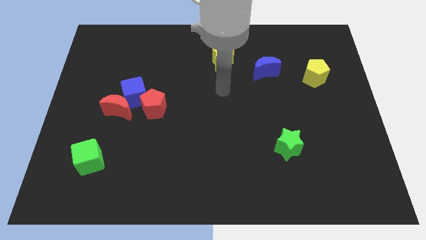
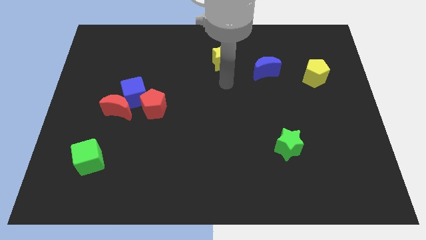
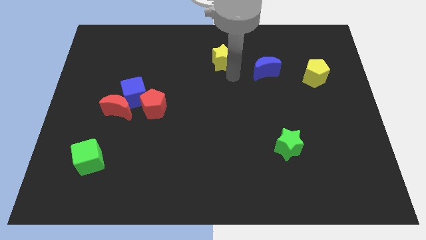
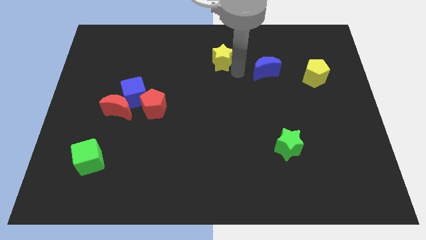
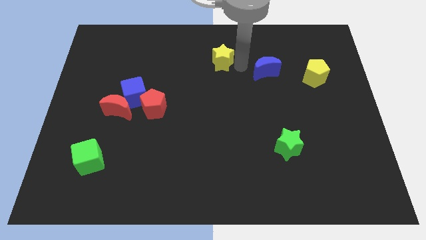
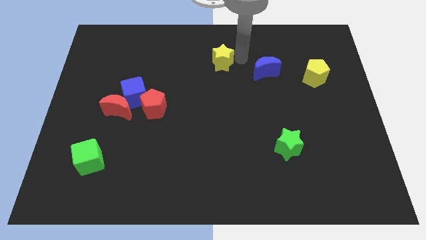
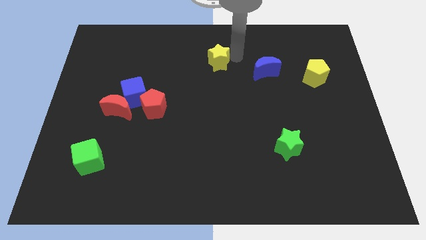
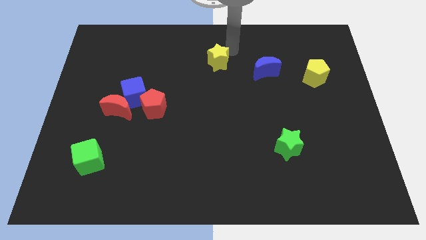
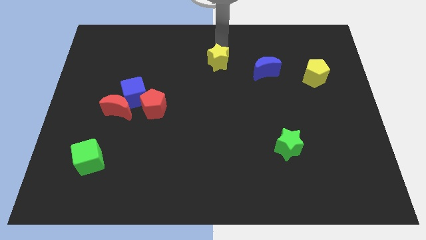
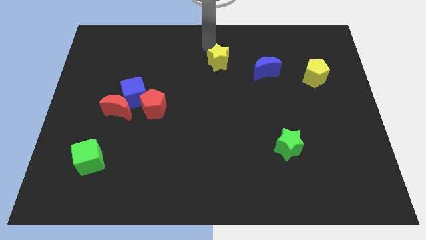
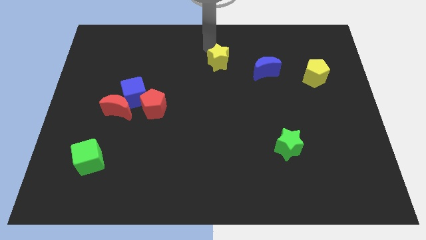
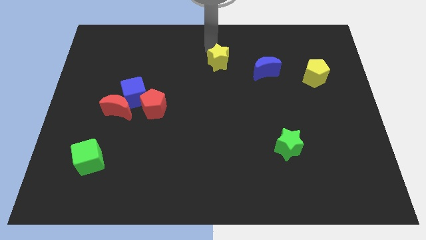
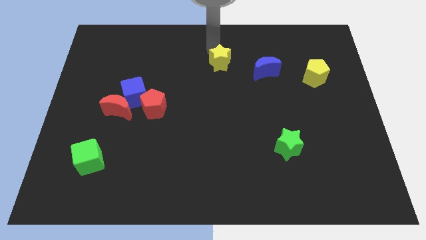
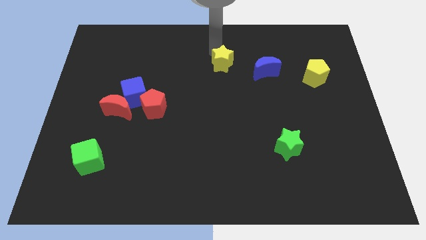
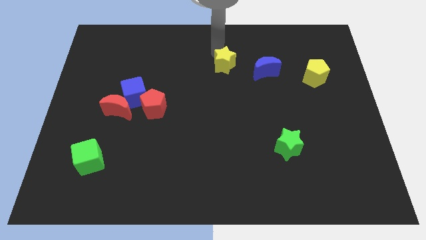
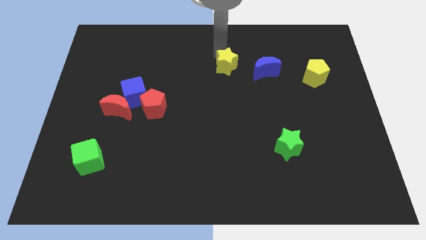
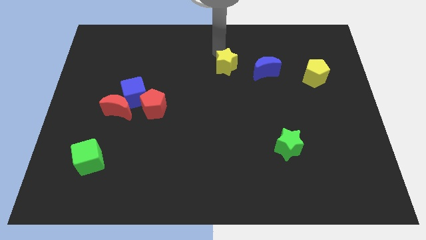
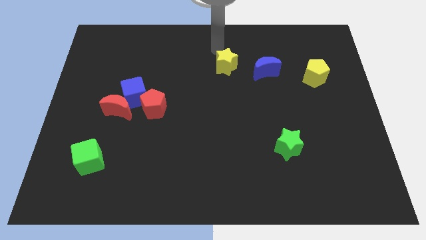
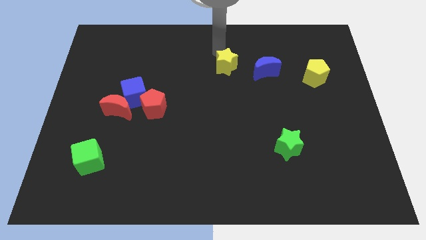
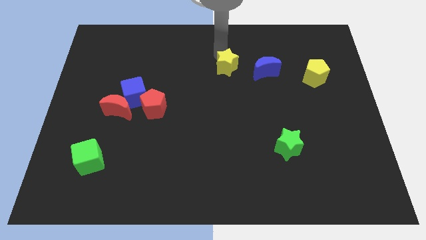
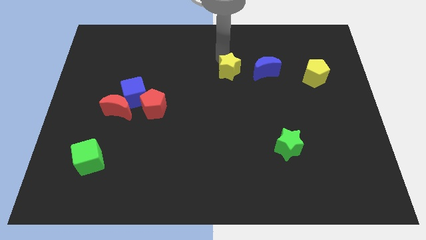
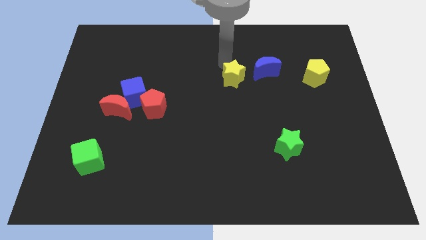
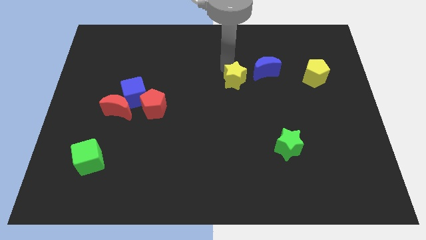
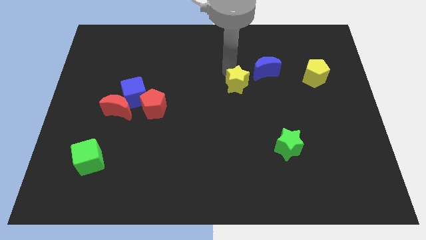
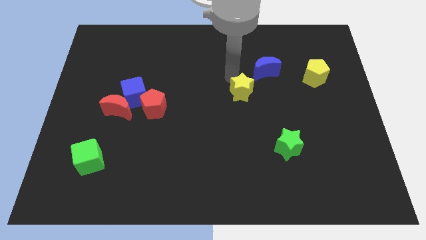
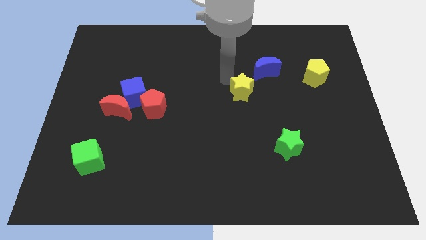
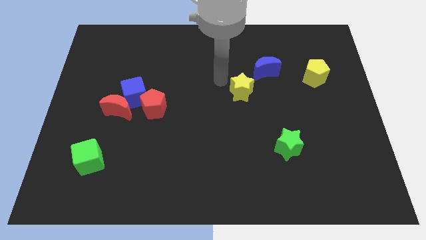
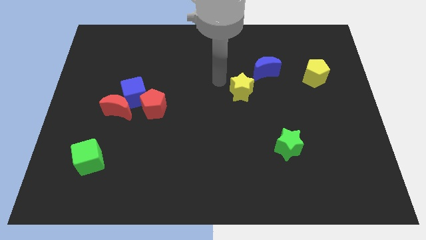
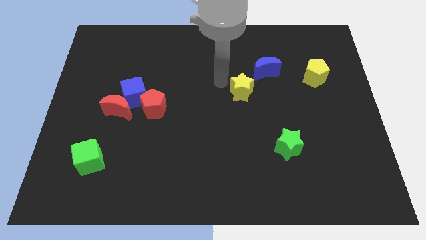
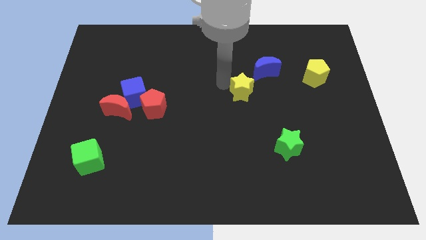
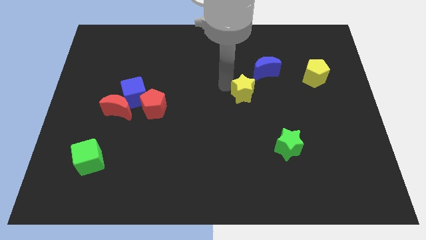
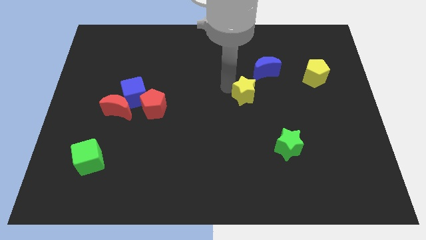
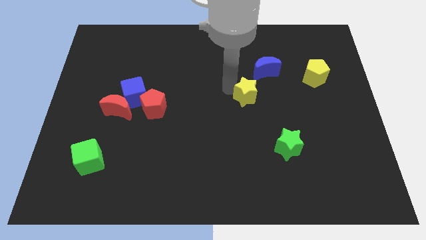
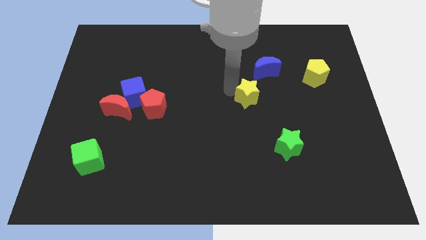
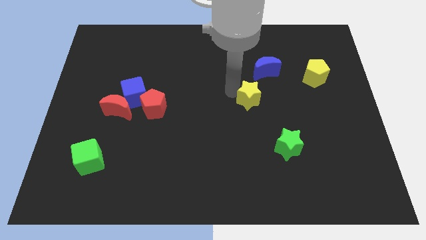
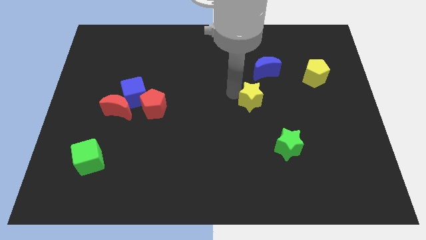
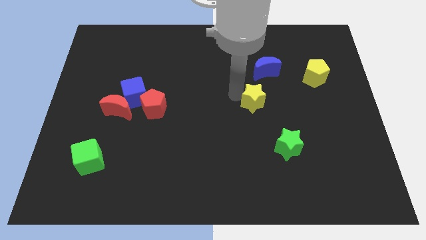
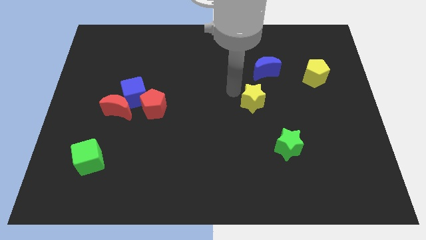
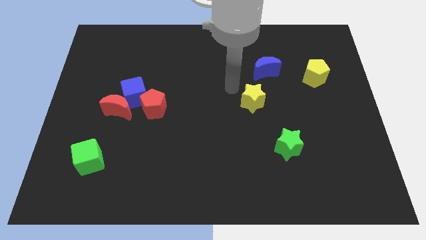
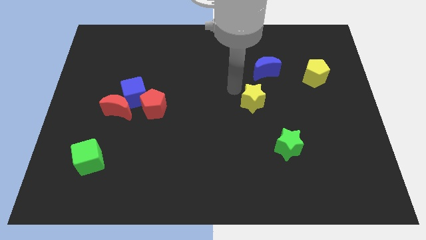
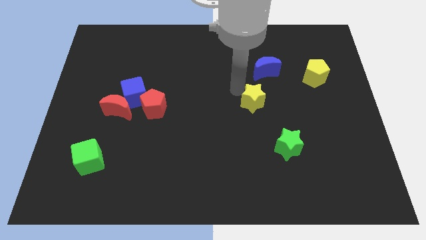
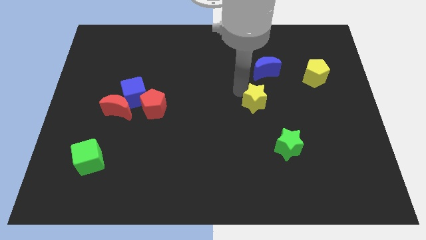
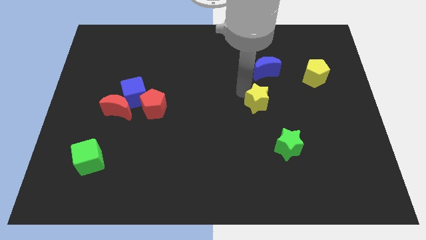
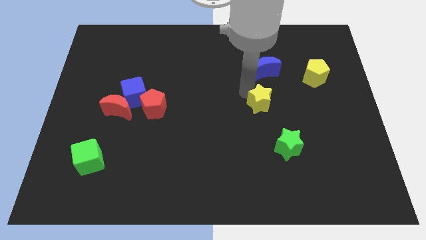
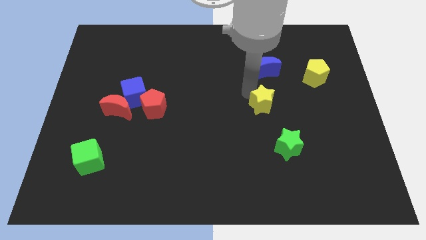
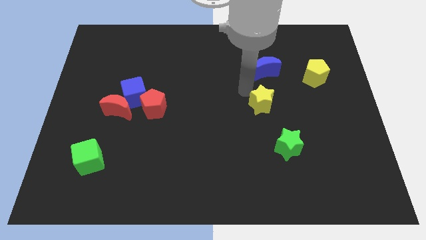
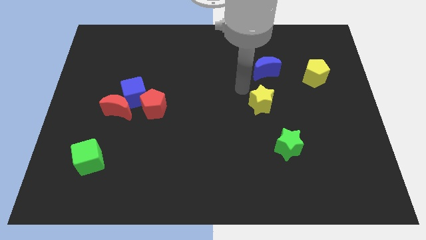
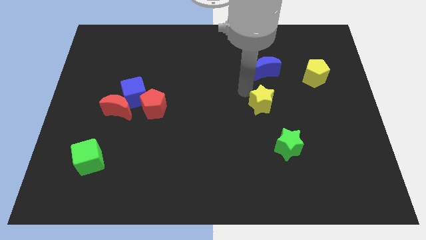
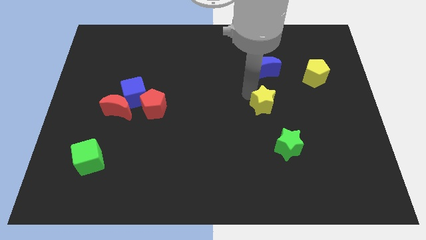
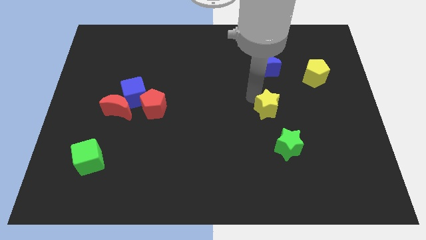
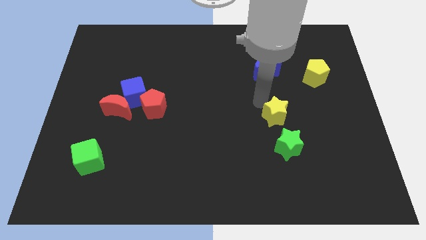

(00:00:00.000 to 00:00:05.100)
push the yellow star downwards and to the right

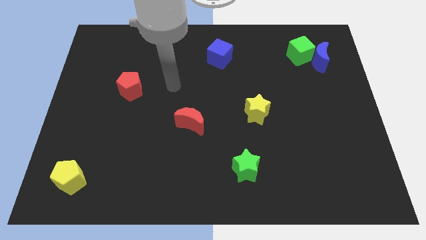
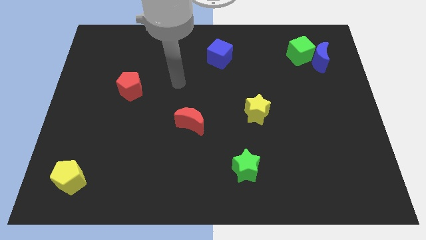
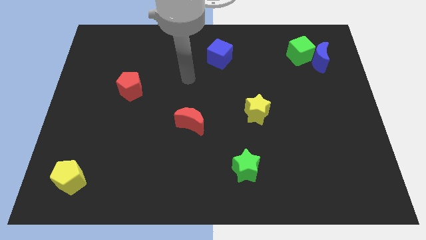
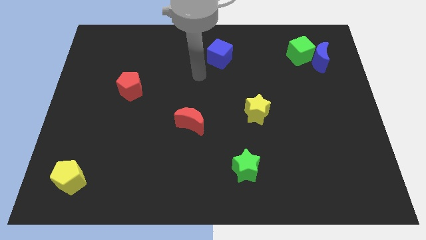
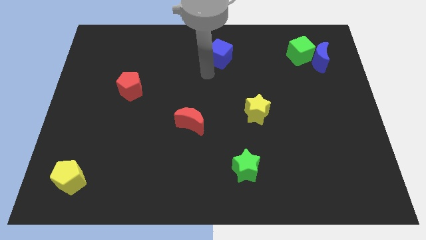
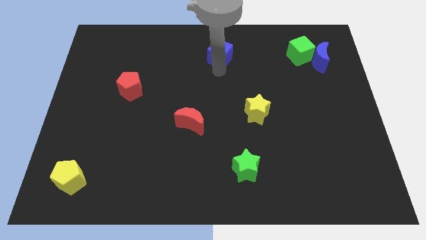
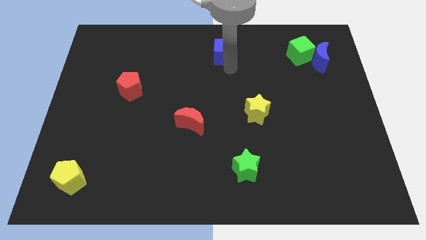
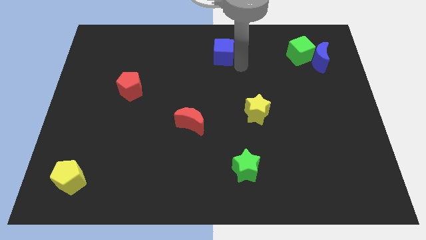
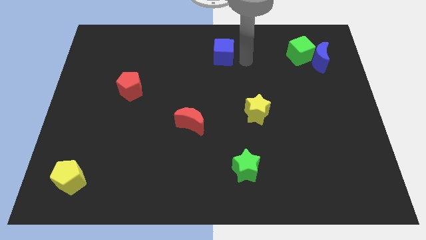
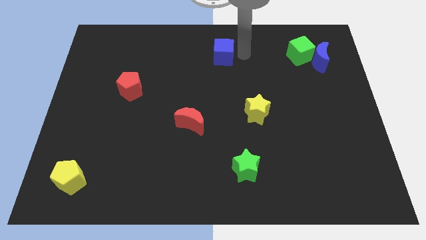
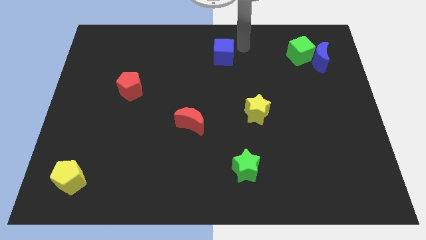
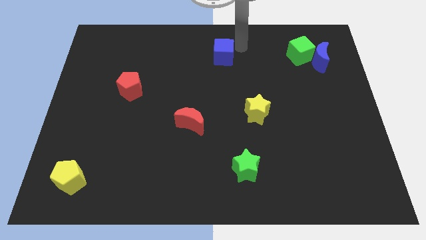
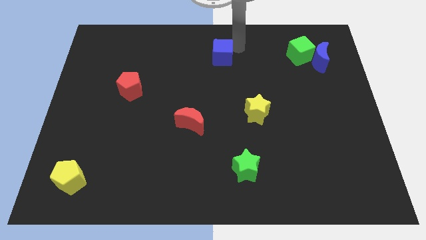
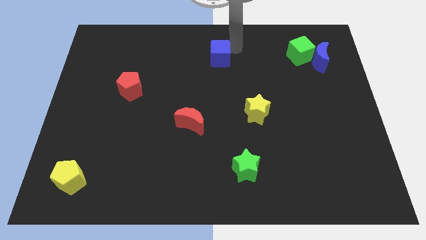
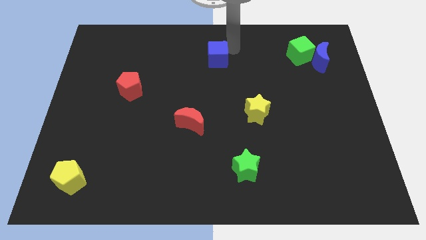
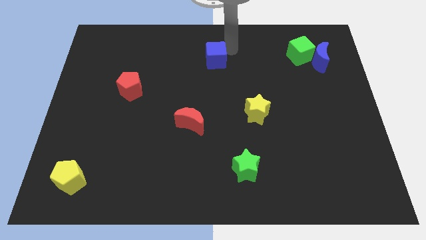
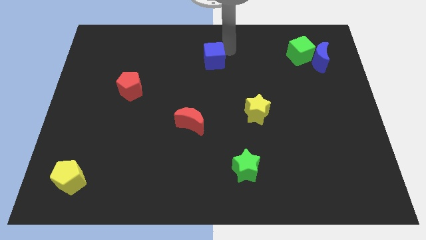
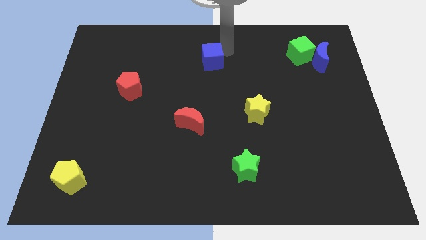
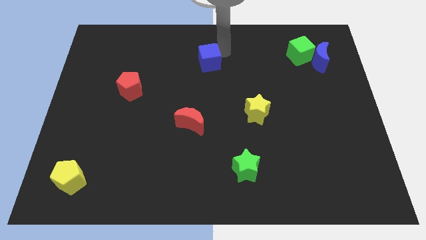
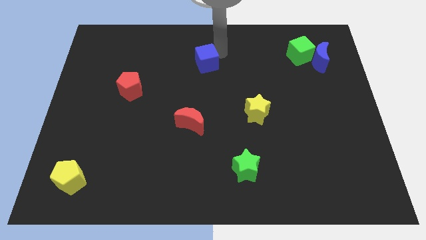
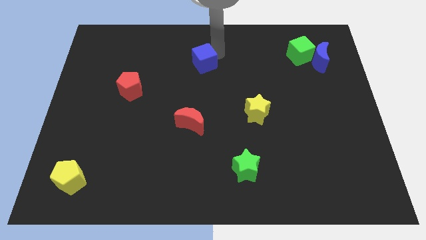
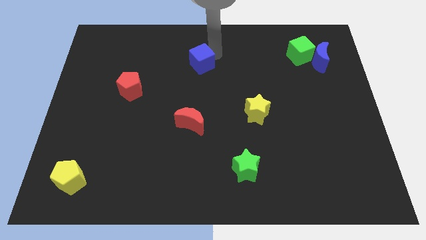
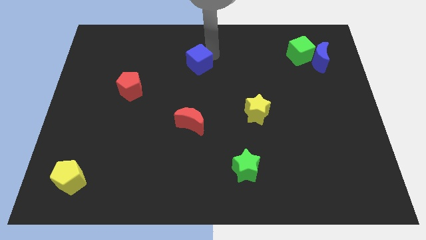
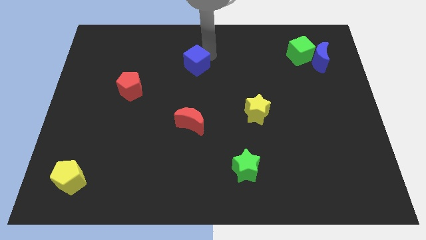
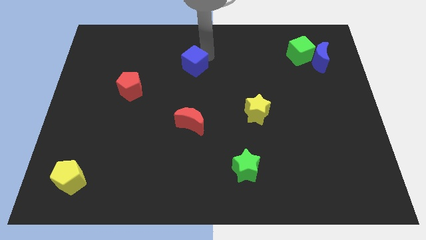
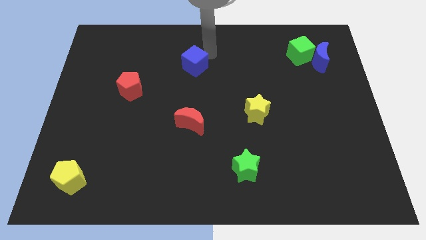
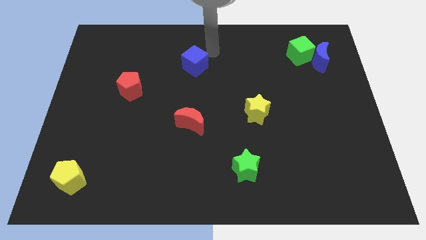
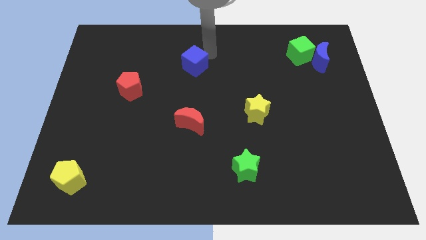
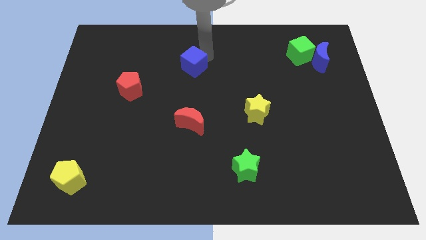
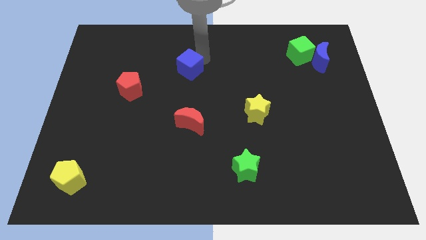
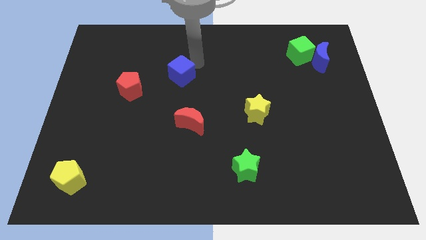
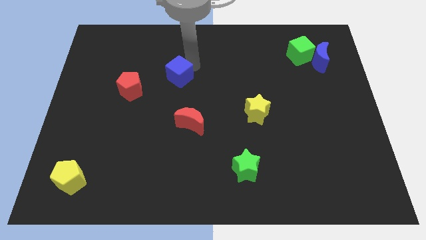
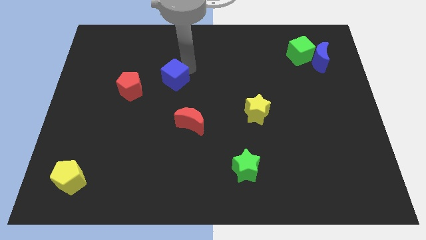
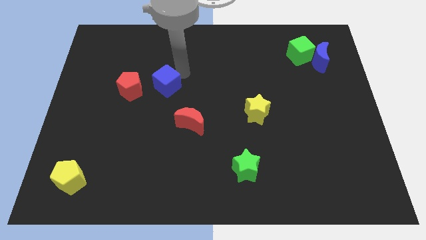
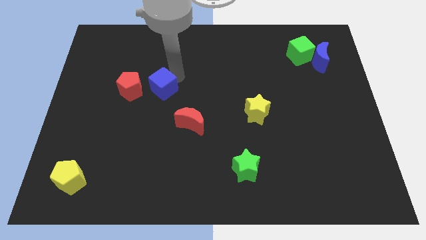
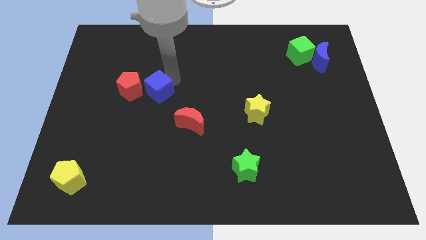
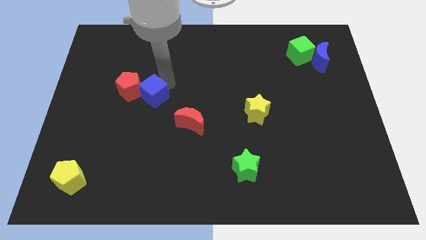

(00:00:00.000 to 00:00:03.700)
move the blue cube downwards and left
